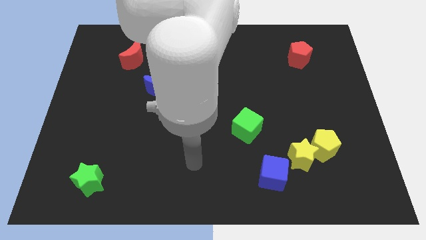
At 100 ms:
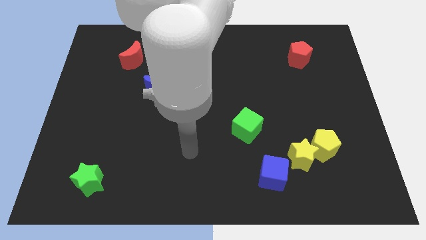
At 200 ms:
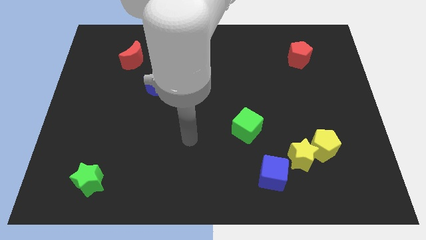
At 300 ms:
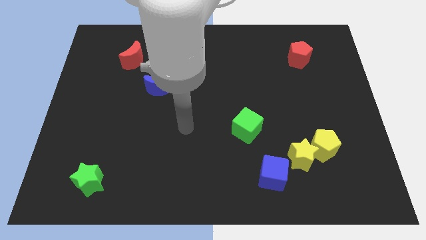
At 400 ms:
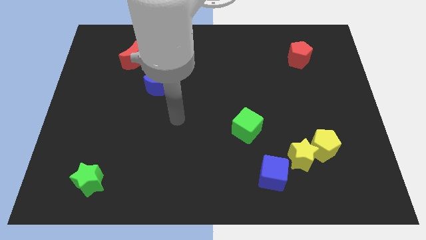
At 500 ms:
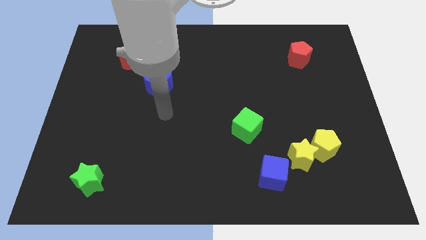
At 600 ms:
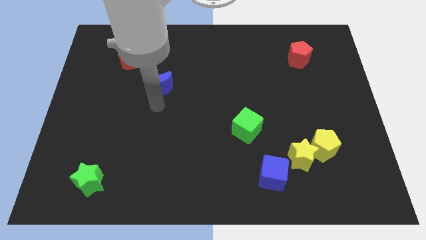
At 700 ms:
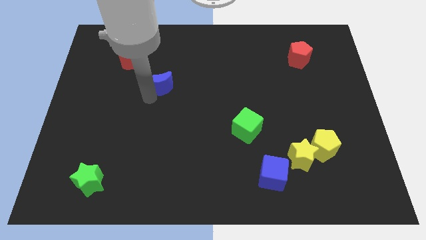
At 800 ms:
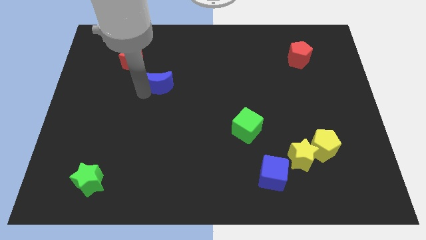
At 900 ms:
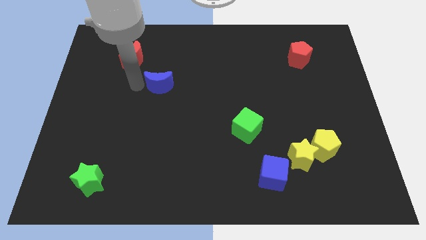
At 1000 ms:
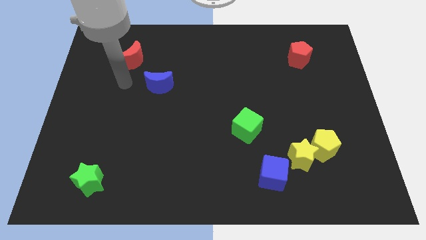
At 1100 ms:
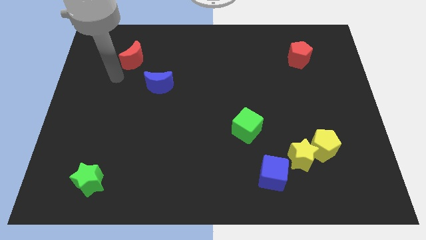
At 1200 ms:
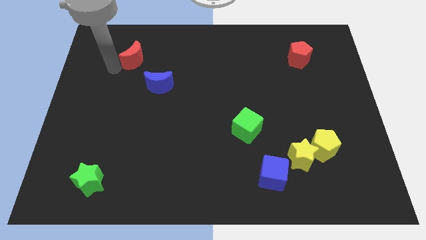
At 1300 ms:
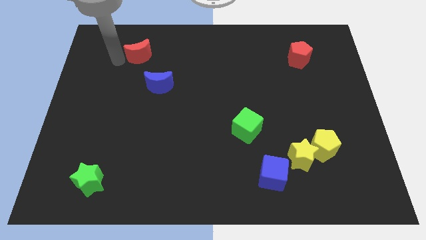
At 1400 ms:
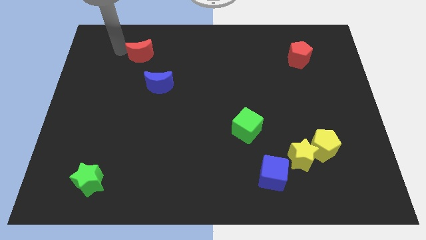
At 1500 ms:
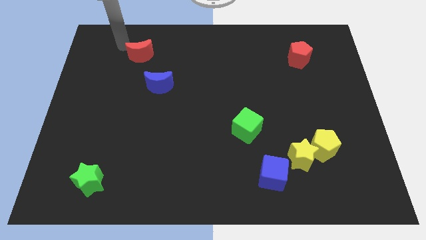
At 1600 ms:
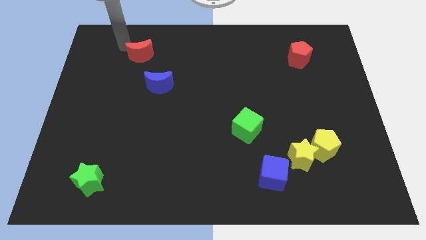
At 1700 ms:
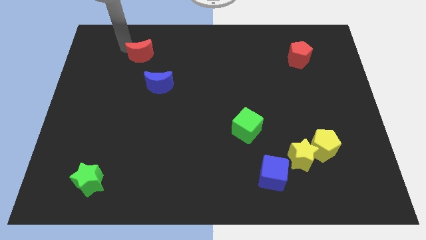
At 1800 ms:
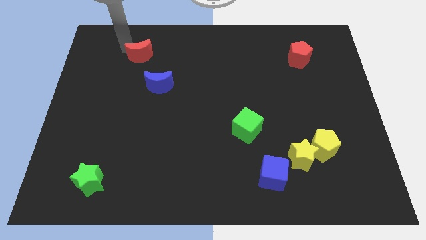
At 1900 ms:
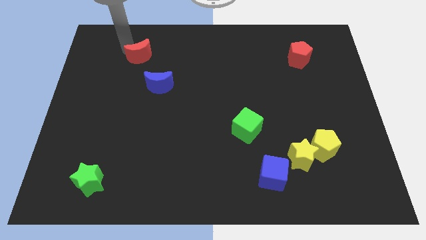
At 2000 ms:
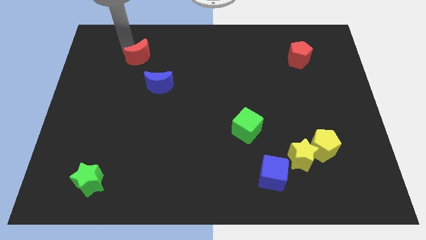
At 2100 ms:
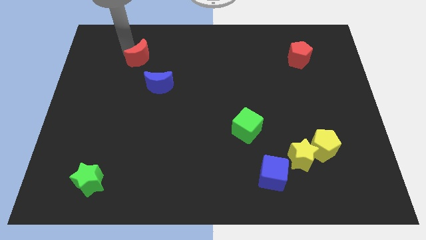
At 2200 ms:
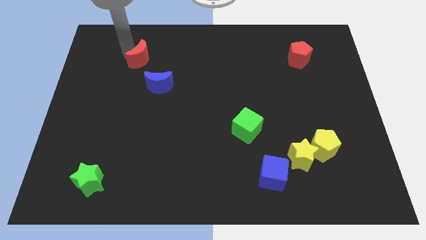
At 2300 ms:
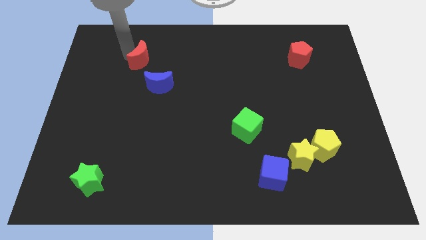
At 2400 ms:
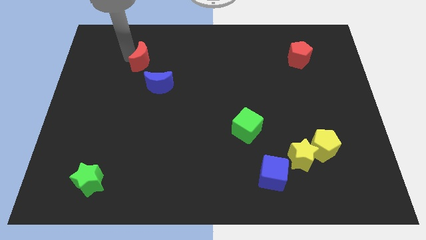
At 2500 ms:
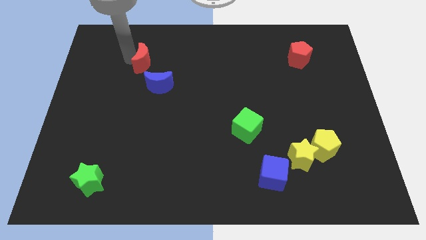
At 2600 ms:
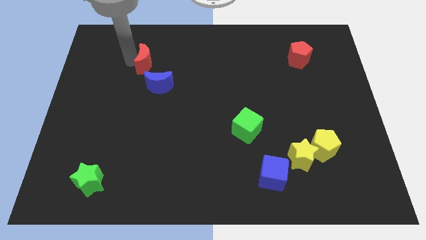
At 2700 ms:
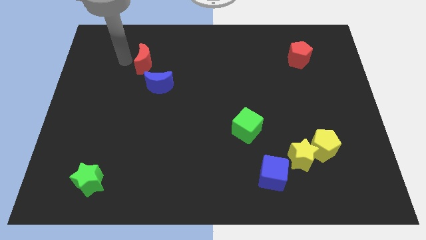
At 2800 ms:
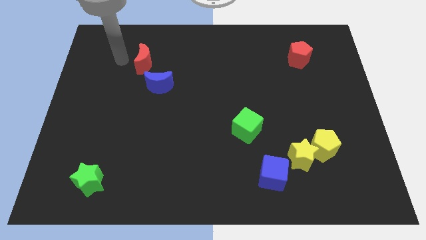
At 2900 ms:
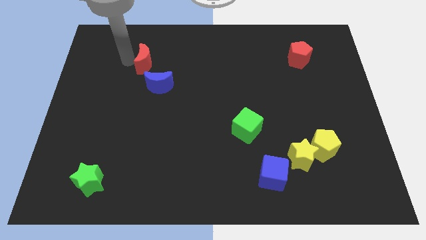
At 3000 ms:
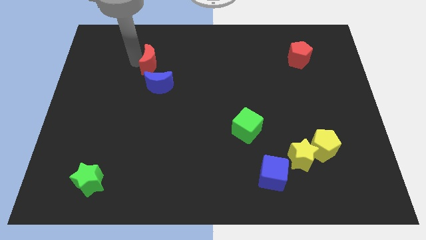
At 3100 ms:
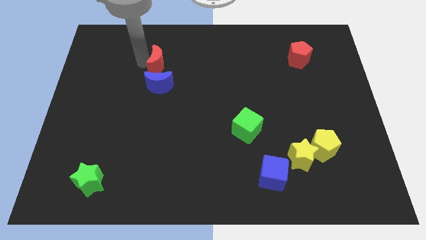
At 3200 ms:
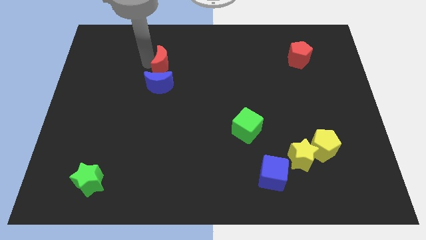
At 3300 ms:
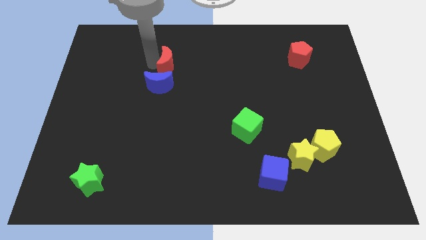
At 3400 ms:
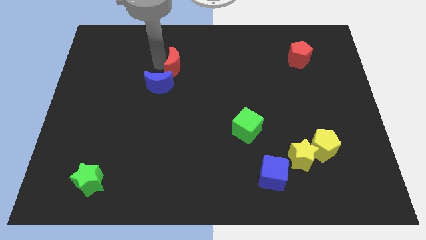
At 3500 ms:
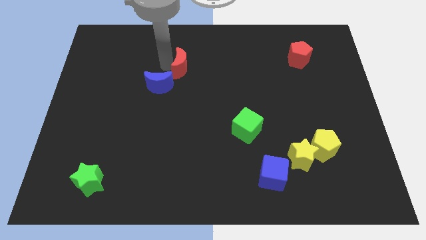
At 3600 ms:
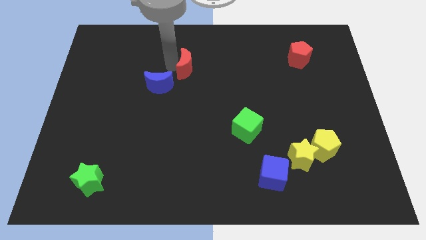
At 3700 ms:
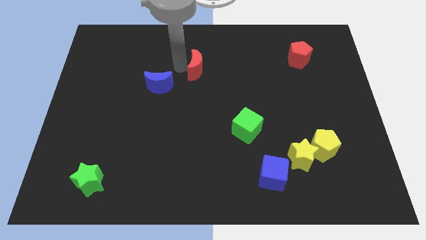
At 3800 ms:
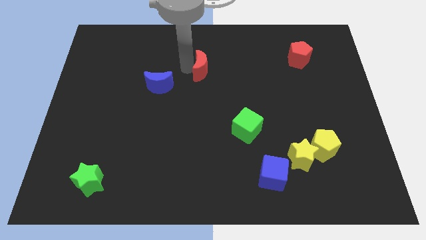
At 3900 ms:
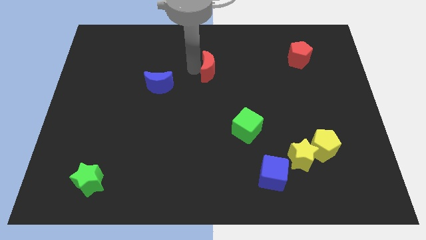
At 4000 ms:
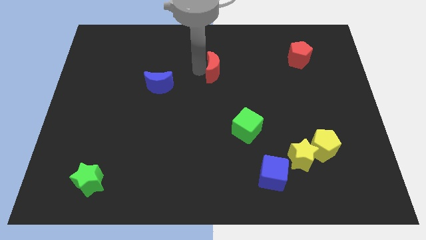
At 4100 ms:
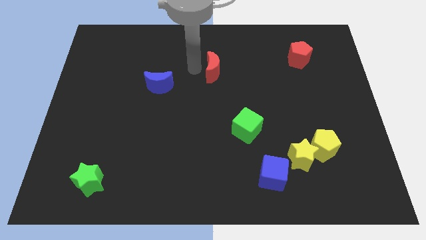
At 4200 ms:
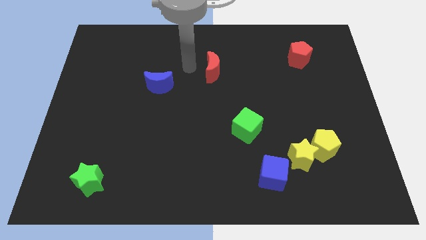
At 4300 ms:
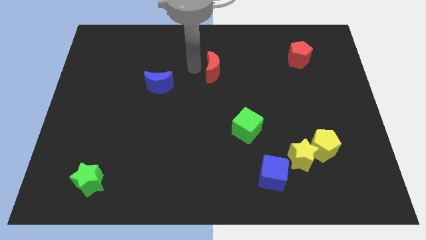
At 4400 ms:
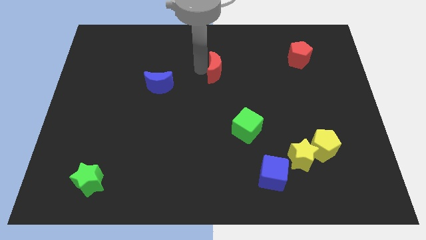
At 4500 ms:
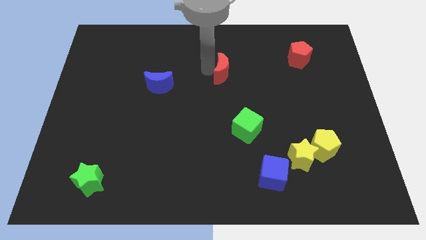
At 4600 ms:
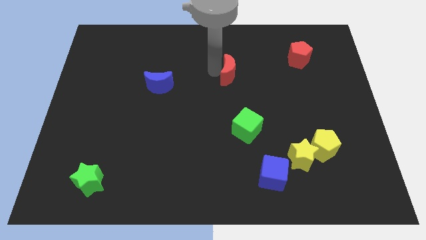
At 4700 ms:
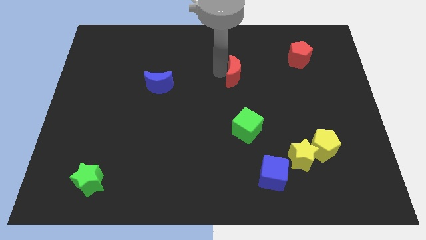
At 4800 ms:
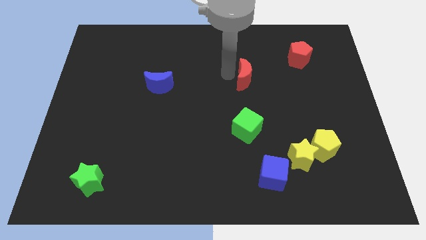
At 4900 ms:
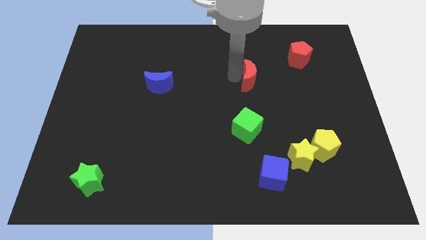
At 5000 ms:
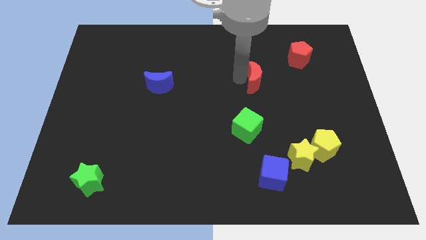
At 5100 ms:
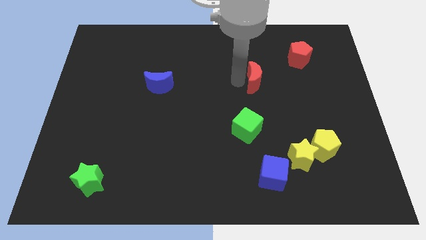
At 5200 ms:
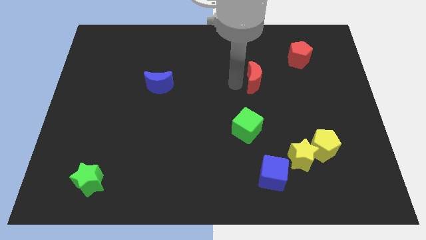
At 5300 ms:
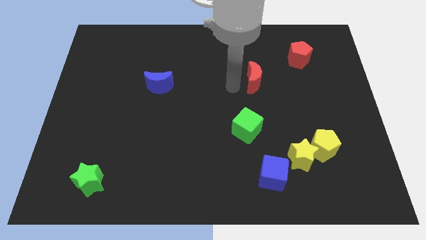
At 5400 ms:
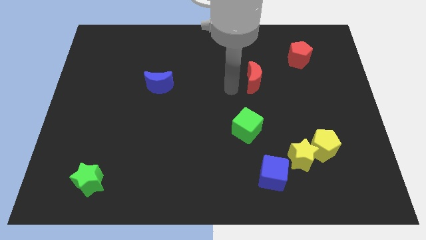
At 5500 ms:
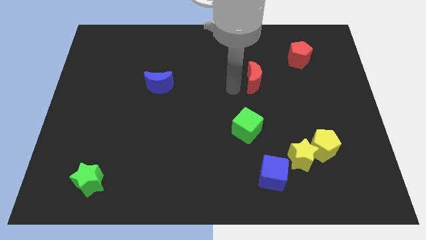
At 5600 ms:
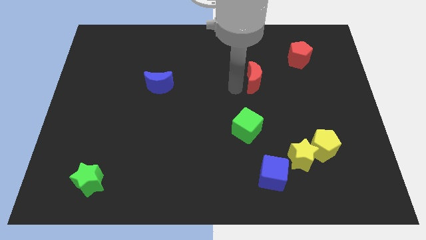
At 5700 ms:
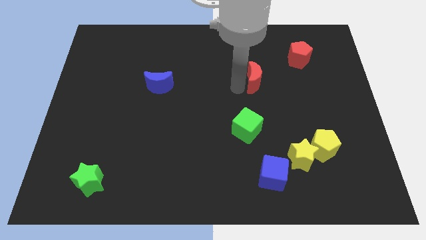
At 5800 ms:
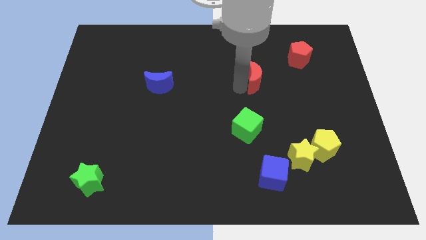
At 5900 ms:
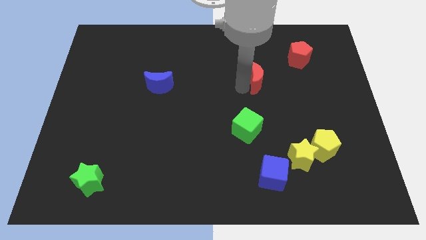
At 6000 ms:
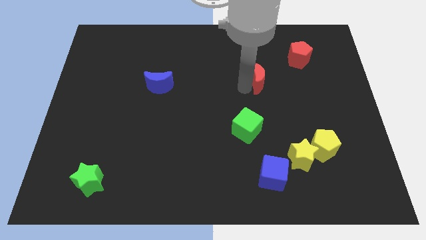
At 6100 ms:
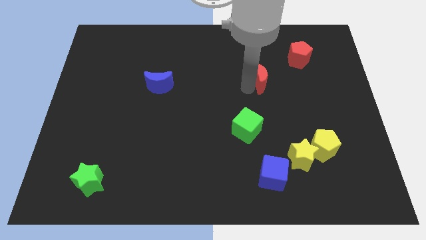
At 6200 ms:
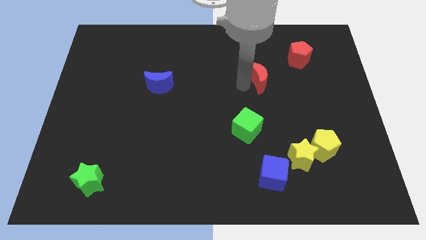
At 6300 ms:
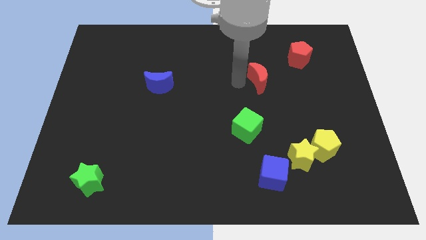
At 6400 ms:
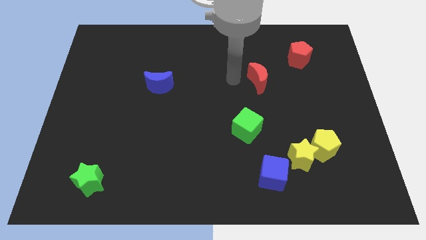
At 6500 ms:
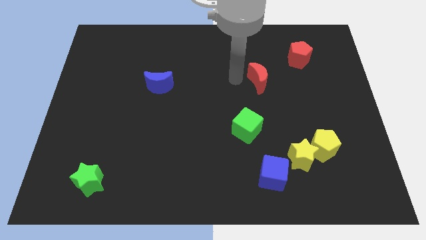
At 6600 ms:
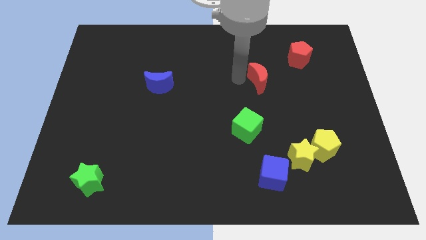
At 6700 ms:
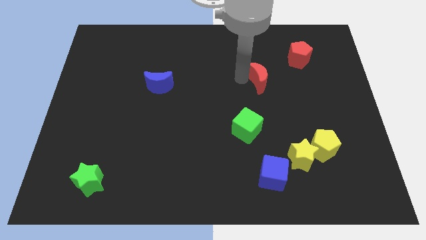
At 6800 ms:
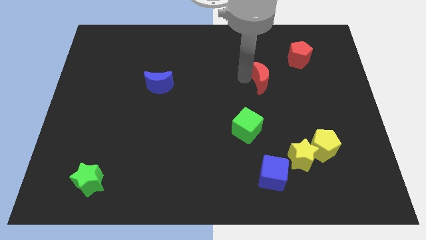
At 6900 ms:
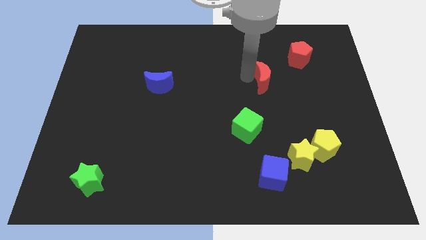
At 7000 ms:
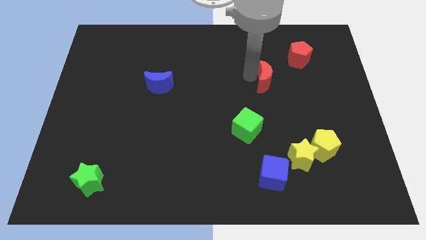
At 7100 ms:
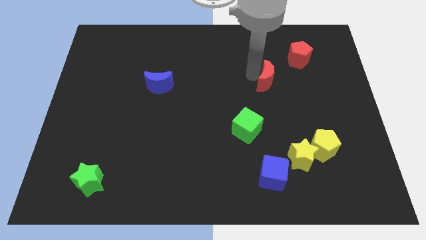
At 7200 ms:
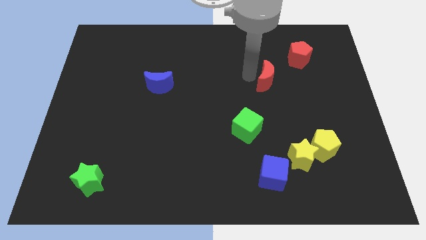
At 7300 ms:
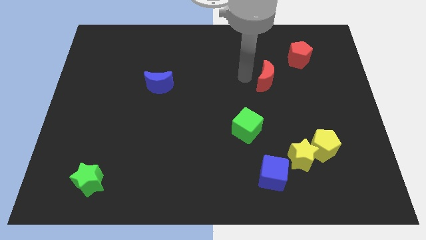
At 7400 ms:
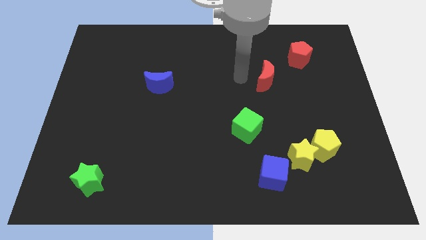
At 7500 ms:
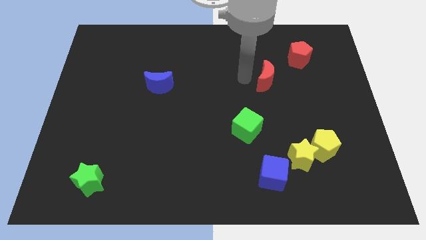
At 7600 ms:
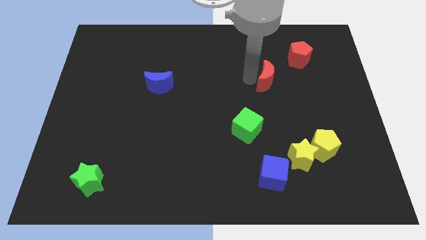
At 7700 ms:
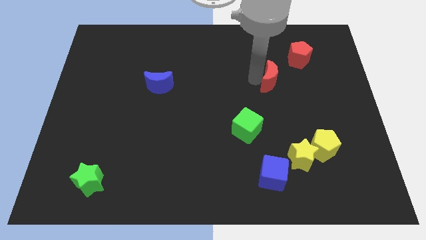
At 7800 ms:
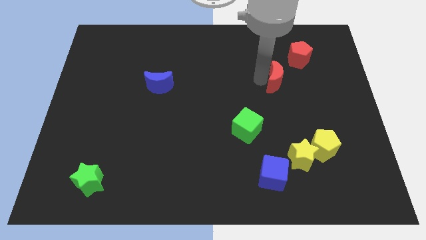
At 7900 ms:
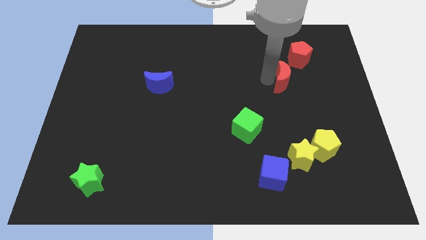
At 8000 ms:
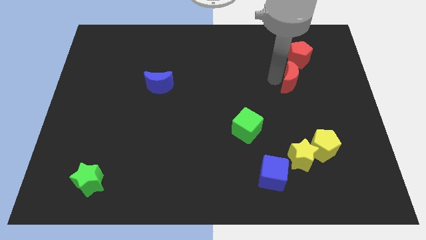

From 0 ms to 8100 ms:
push the red moon below the red pentagon
